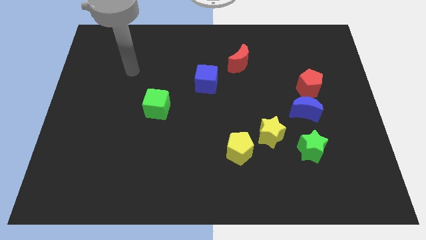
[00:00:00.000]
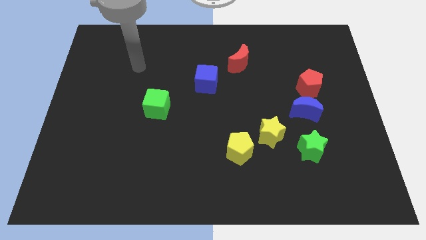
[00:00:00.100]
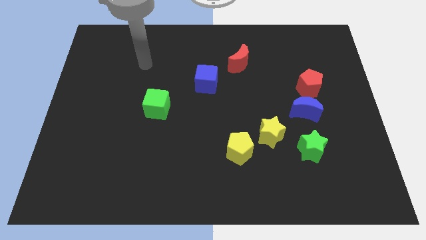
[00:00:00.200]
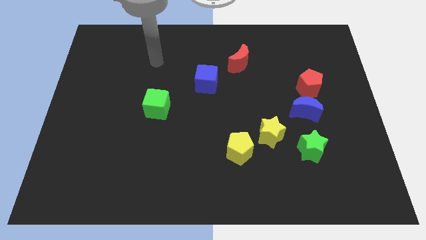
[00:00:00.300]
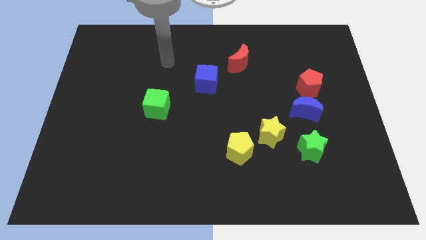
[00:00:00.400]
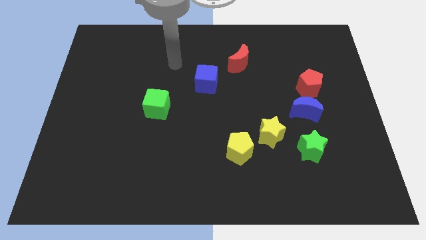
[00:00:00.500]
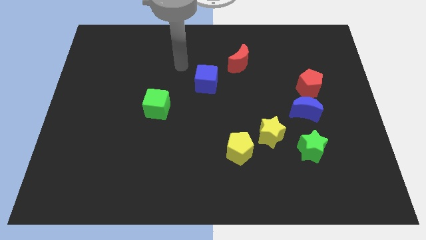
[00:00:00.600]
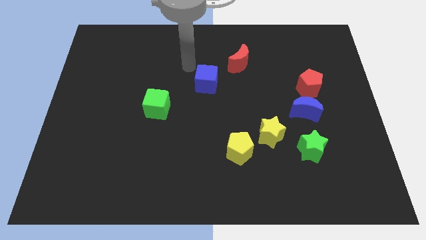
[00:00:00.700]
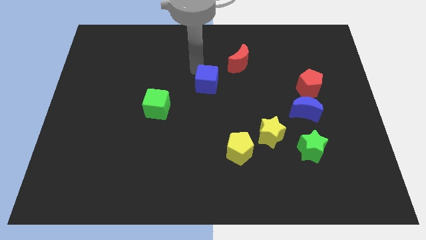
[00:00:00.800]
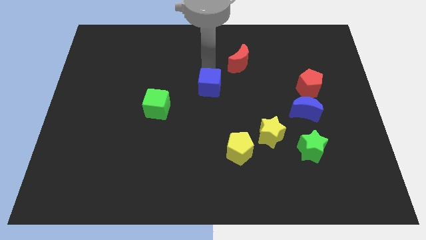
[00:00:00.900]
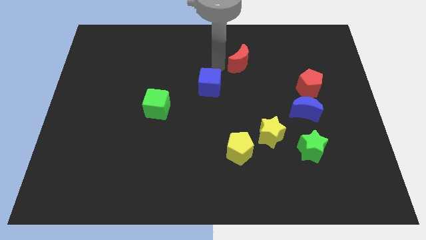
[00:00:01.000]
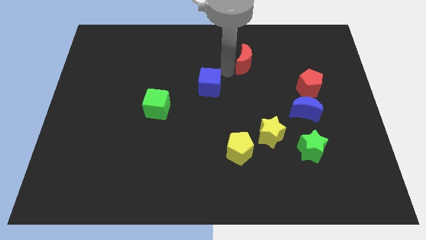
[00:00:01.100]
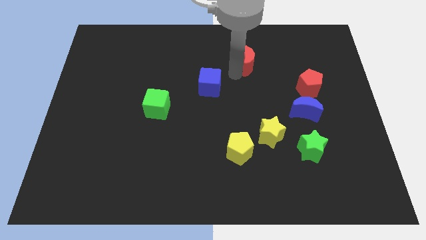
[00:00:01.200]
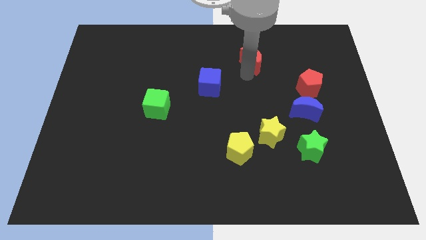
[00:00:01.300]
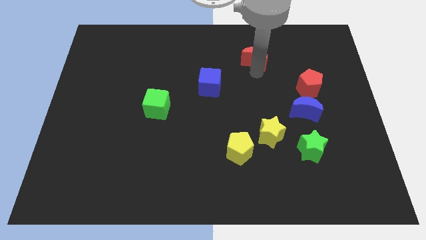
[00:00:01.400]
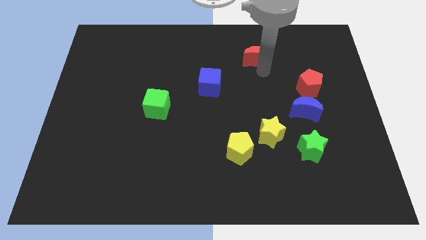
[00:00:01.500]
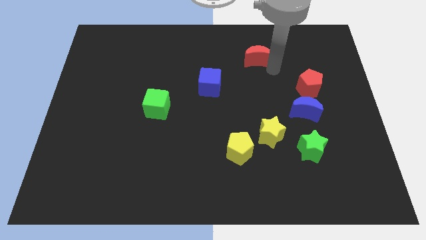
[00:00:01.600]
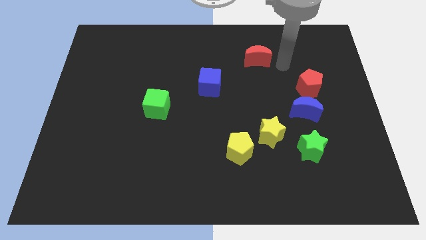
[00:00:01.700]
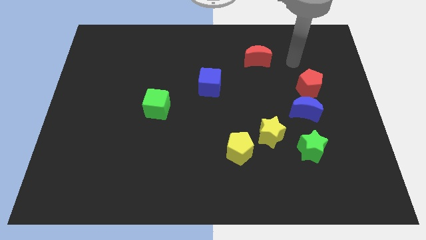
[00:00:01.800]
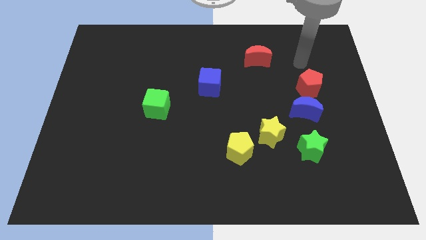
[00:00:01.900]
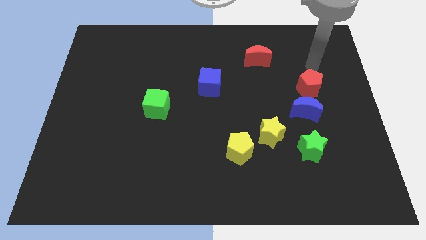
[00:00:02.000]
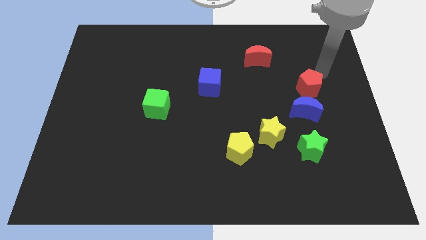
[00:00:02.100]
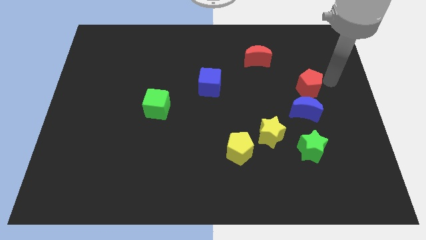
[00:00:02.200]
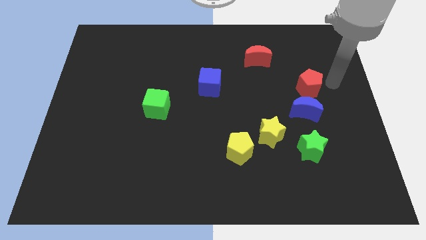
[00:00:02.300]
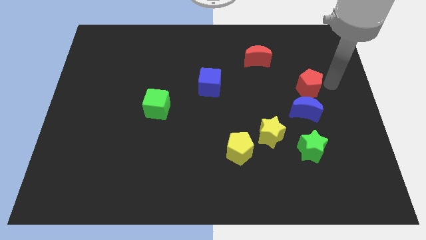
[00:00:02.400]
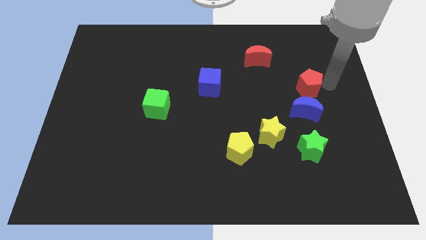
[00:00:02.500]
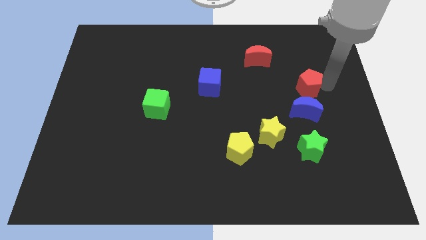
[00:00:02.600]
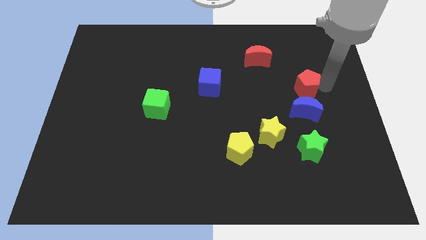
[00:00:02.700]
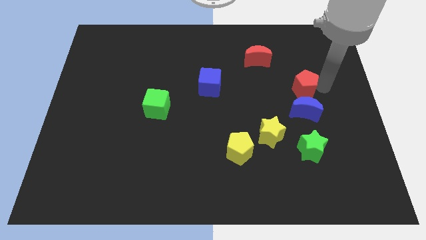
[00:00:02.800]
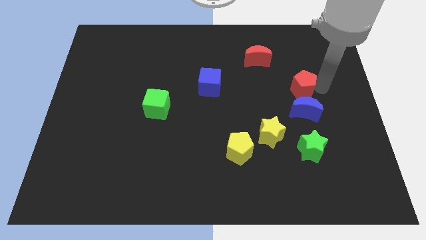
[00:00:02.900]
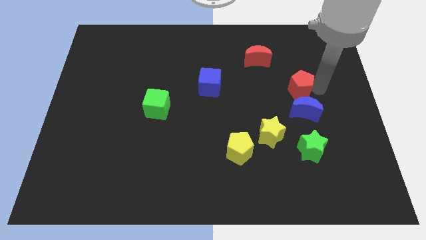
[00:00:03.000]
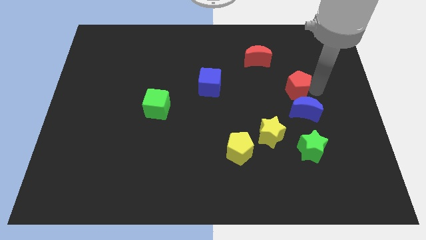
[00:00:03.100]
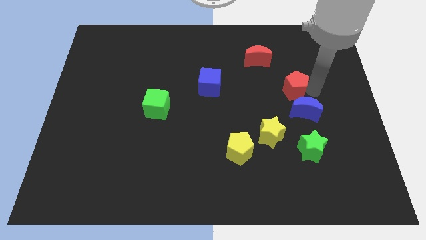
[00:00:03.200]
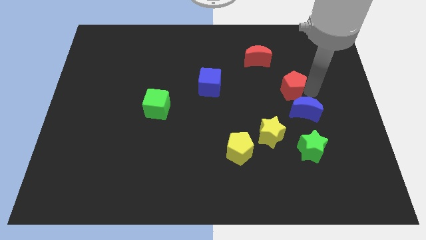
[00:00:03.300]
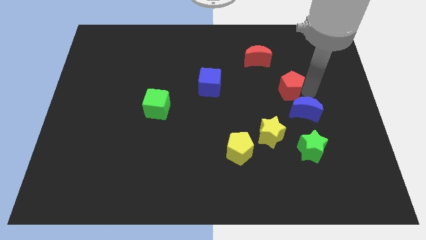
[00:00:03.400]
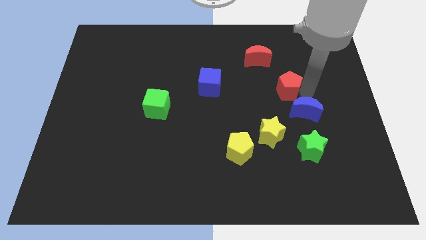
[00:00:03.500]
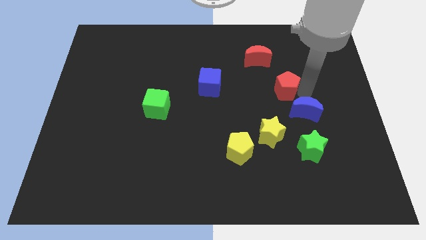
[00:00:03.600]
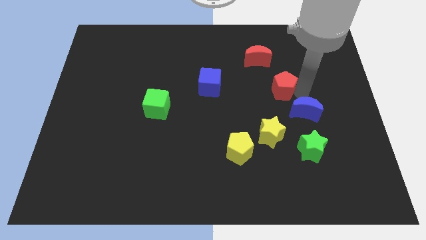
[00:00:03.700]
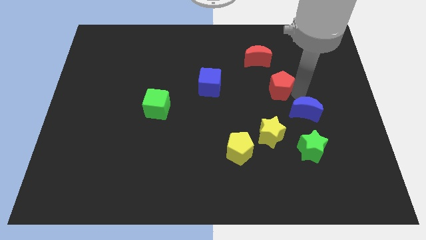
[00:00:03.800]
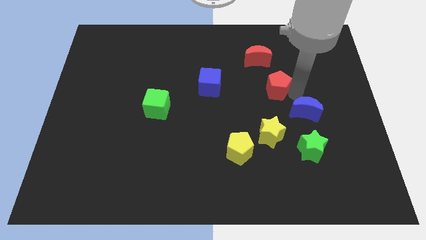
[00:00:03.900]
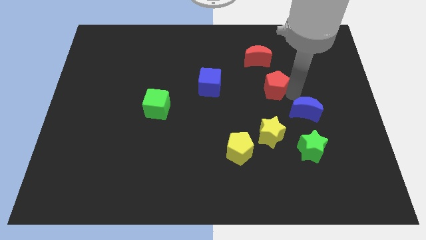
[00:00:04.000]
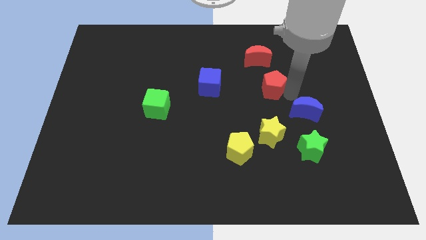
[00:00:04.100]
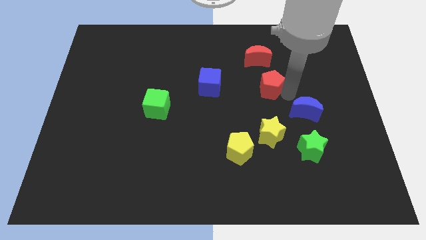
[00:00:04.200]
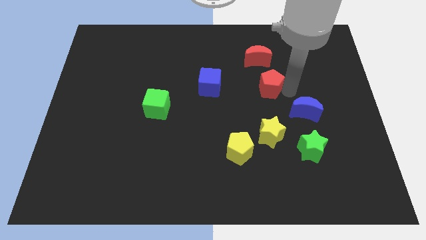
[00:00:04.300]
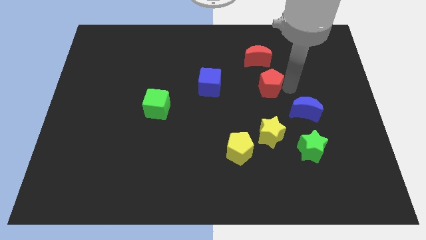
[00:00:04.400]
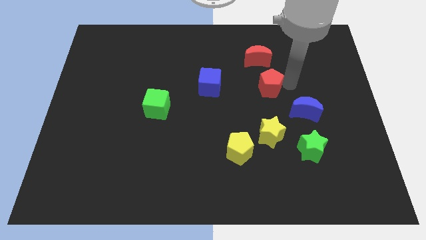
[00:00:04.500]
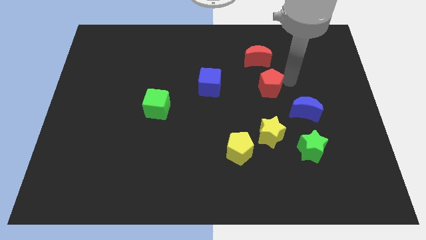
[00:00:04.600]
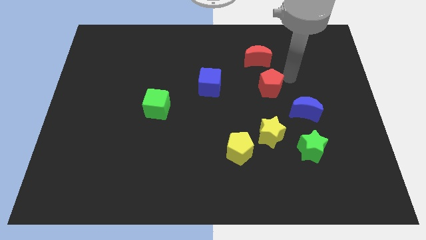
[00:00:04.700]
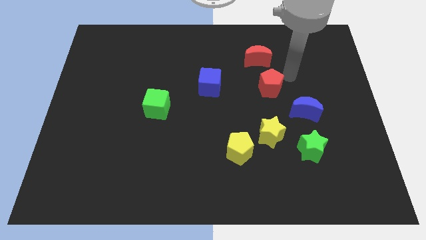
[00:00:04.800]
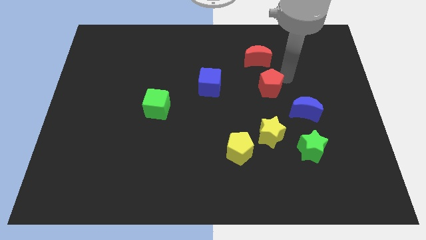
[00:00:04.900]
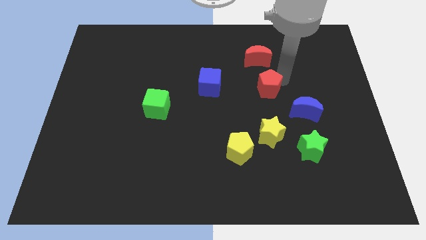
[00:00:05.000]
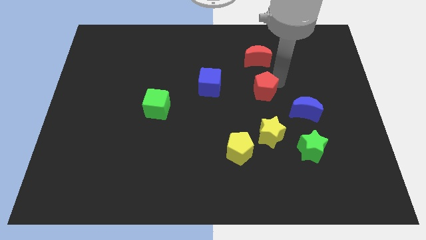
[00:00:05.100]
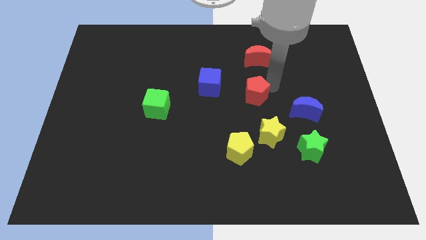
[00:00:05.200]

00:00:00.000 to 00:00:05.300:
put the red pentagon to the center of the board
